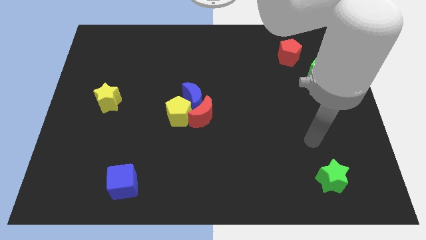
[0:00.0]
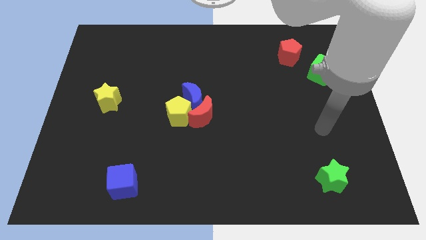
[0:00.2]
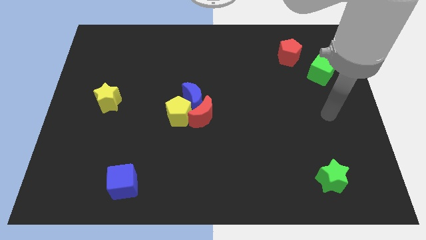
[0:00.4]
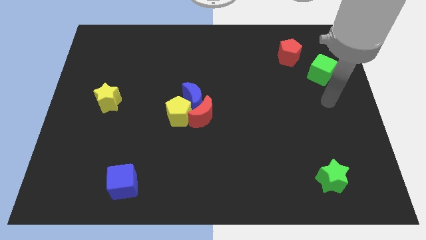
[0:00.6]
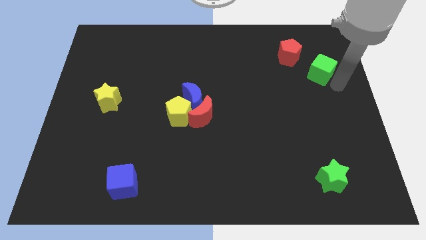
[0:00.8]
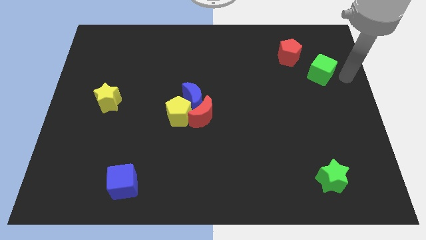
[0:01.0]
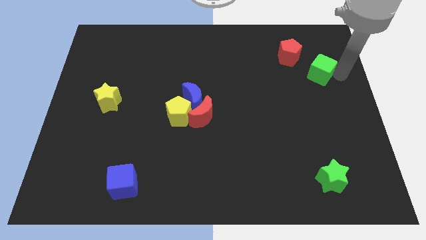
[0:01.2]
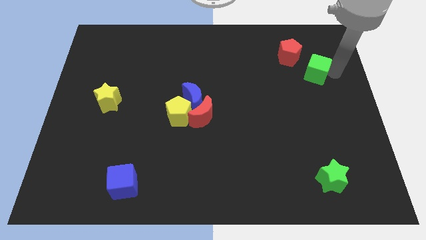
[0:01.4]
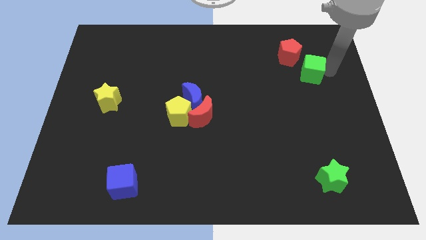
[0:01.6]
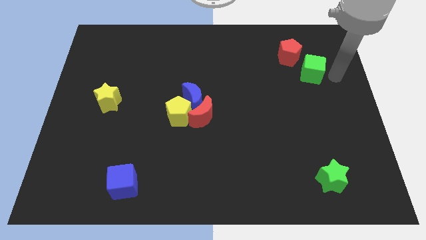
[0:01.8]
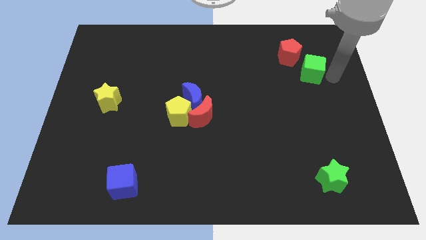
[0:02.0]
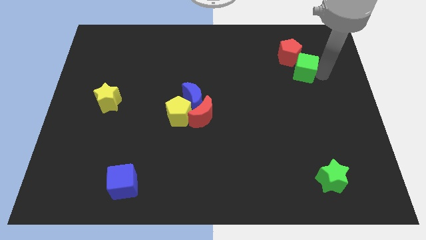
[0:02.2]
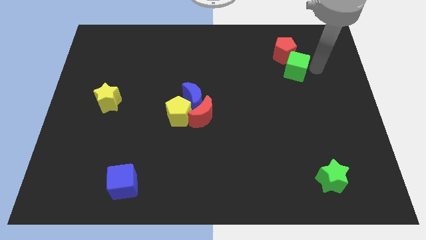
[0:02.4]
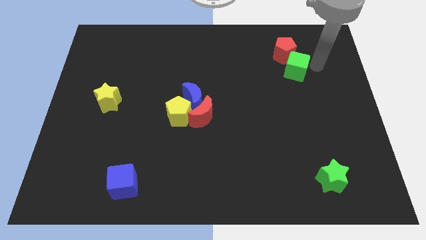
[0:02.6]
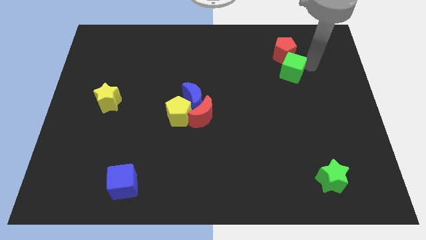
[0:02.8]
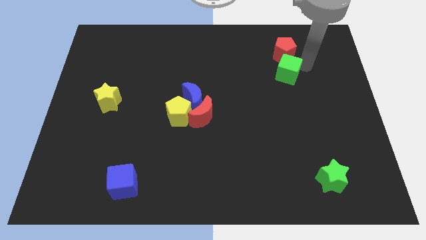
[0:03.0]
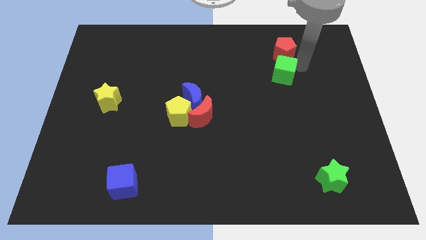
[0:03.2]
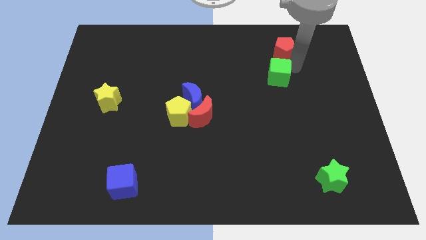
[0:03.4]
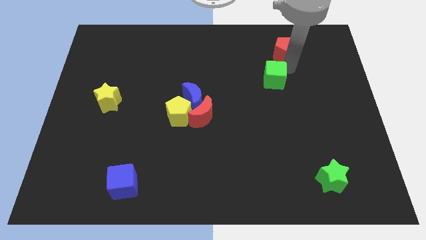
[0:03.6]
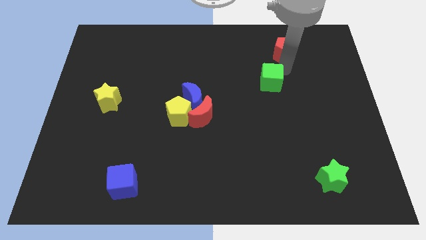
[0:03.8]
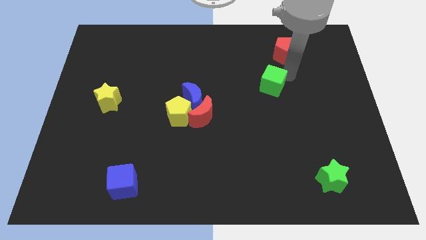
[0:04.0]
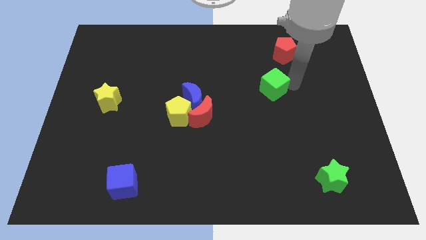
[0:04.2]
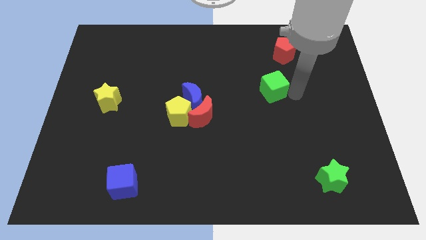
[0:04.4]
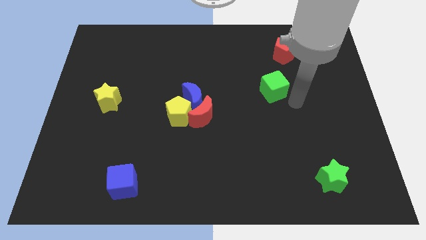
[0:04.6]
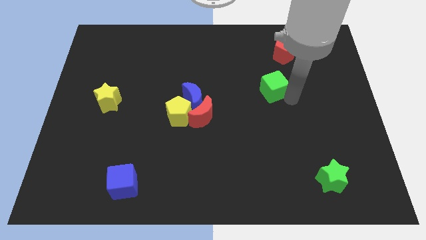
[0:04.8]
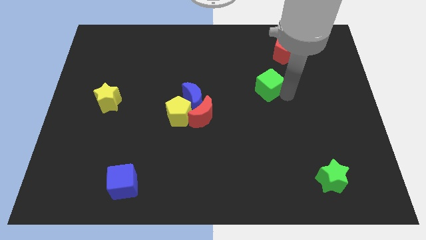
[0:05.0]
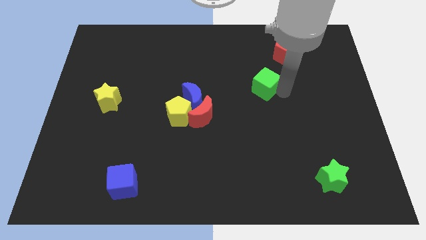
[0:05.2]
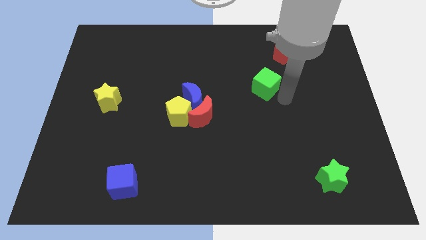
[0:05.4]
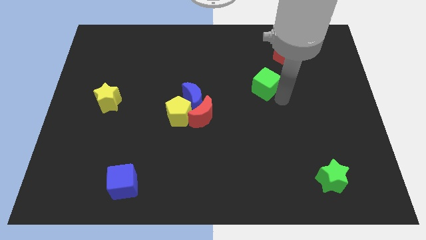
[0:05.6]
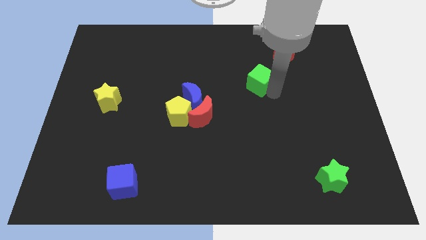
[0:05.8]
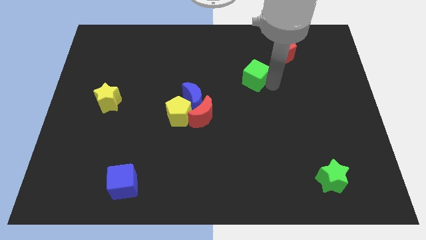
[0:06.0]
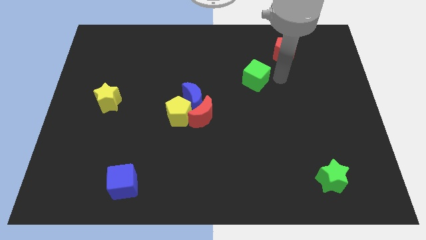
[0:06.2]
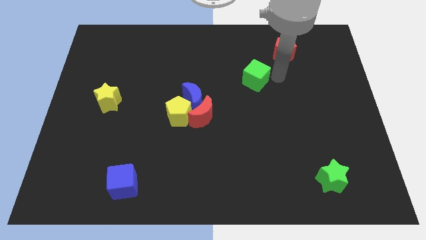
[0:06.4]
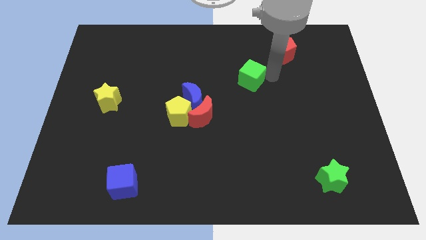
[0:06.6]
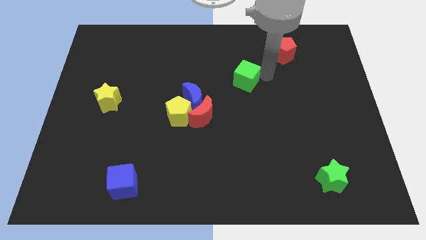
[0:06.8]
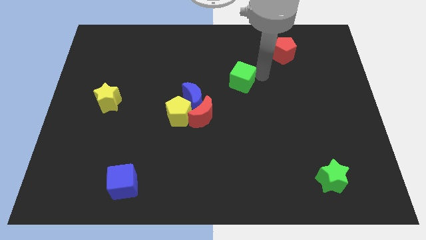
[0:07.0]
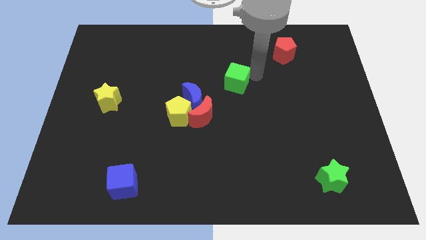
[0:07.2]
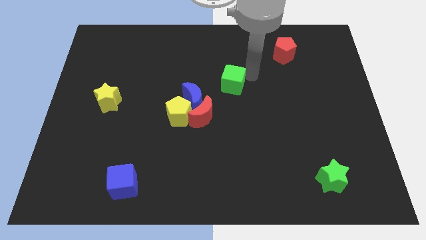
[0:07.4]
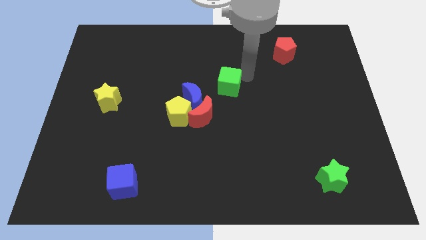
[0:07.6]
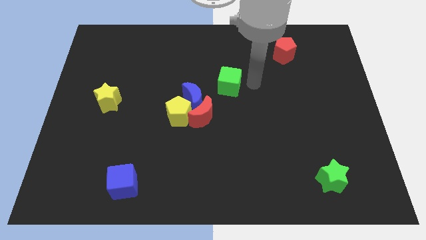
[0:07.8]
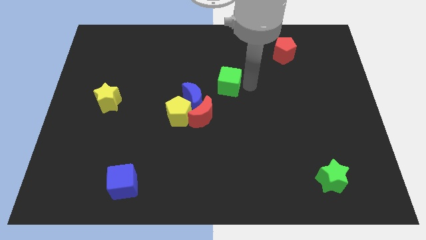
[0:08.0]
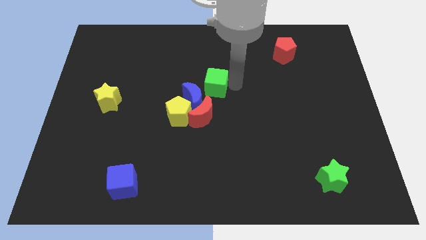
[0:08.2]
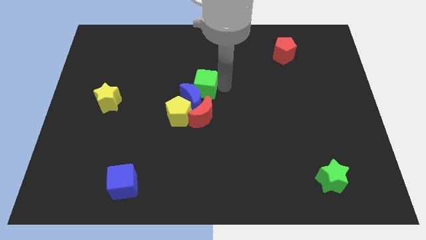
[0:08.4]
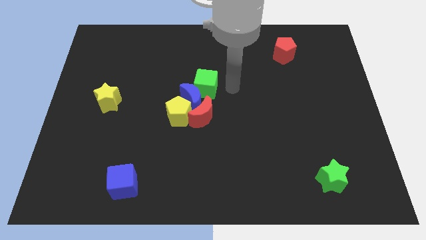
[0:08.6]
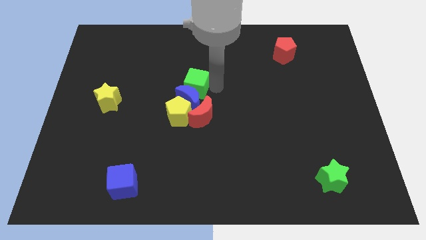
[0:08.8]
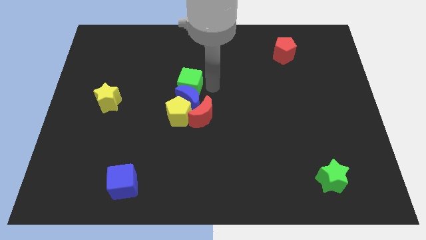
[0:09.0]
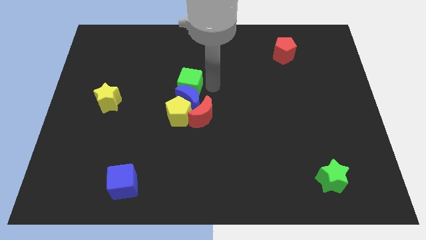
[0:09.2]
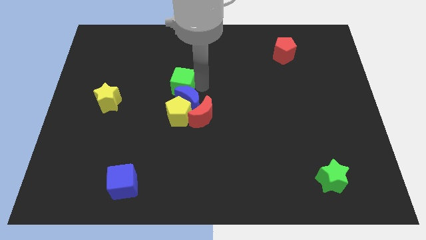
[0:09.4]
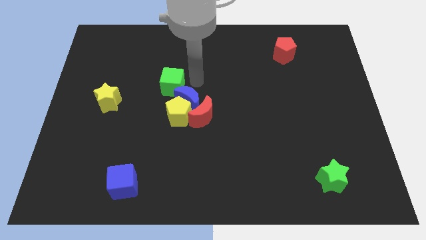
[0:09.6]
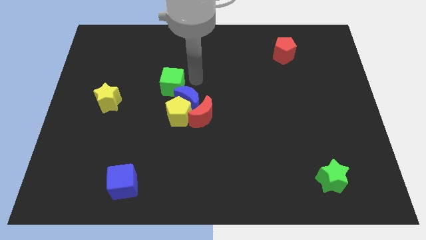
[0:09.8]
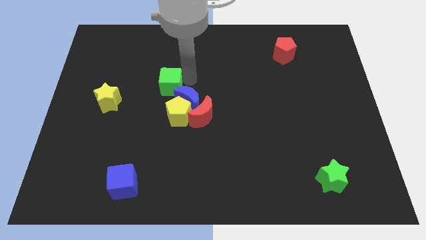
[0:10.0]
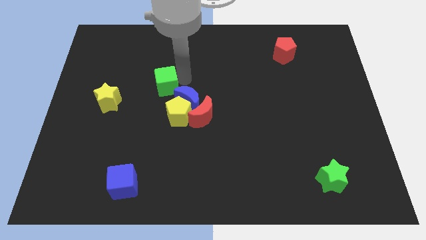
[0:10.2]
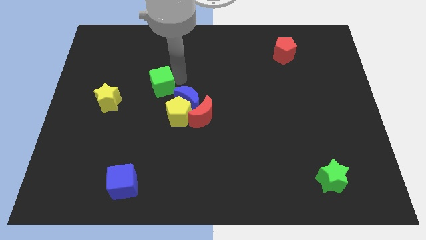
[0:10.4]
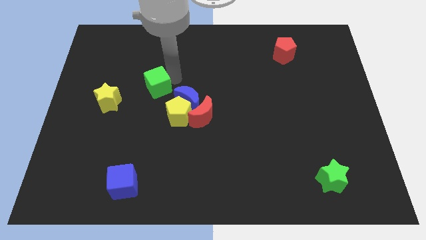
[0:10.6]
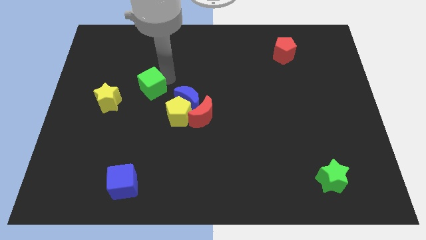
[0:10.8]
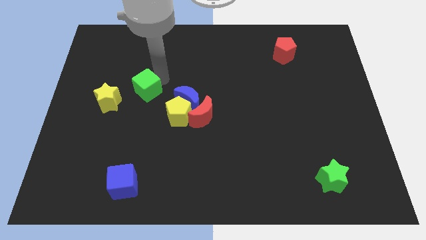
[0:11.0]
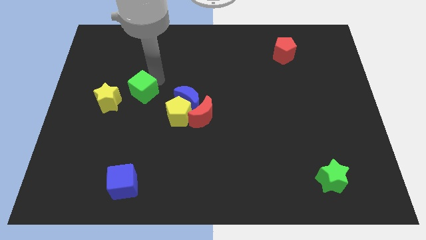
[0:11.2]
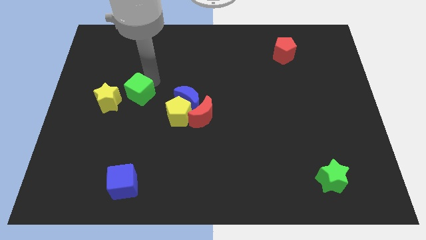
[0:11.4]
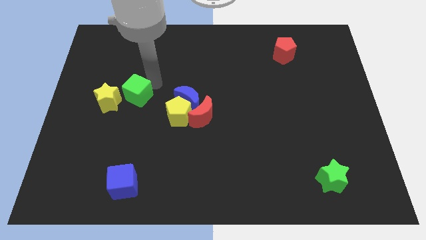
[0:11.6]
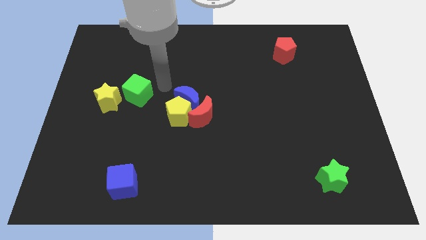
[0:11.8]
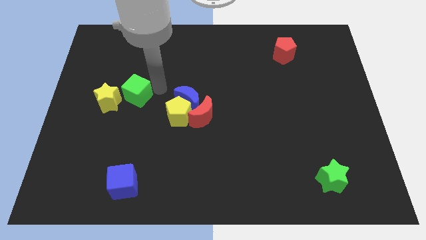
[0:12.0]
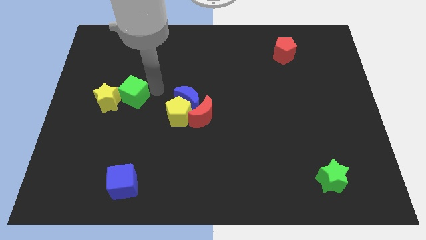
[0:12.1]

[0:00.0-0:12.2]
put the green cube to the yellow star

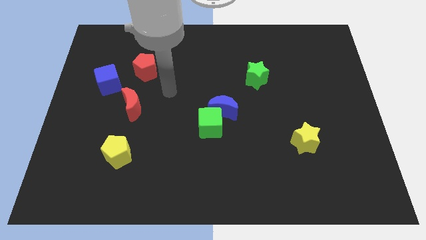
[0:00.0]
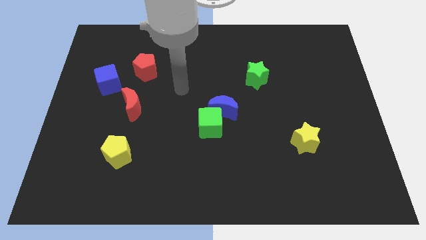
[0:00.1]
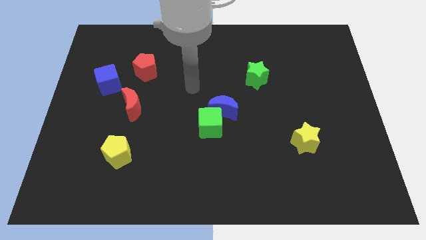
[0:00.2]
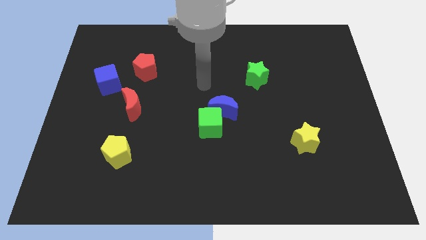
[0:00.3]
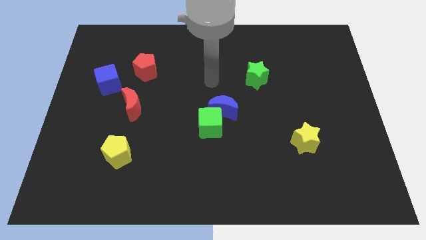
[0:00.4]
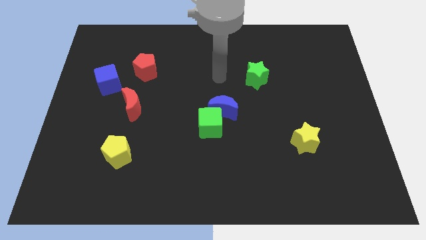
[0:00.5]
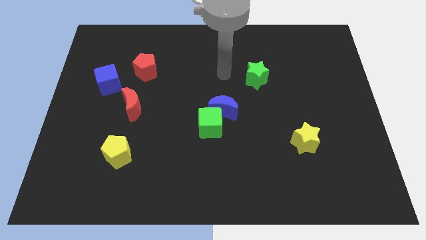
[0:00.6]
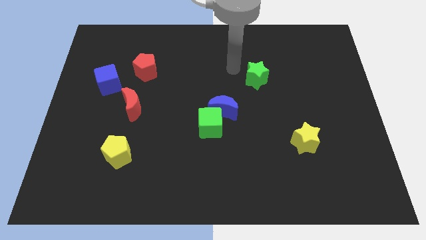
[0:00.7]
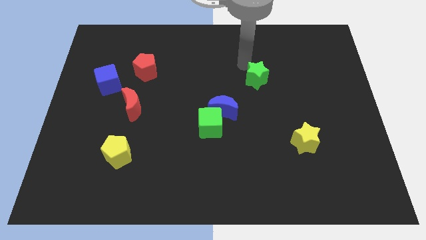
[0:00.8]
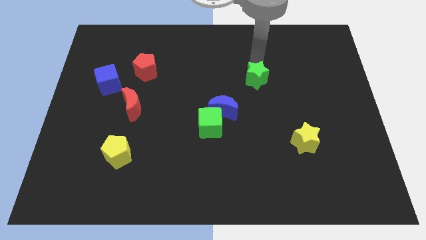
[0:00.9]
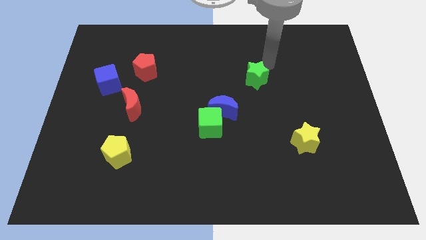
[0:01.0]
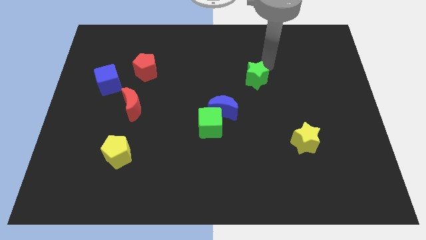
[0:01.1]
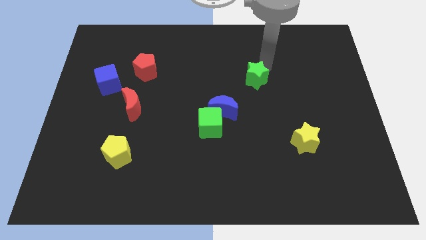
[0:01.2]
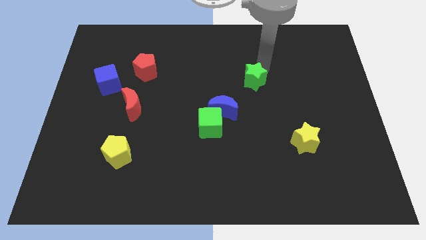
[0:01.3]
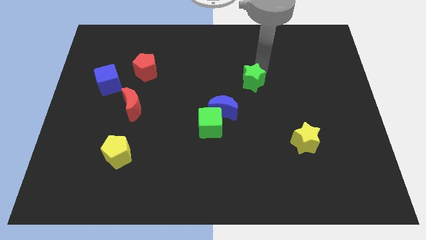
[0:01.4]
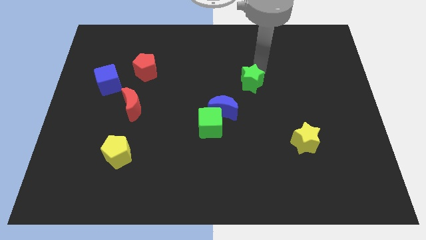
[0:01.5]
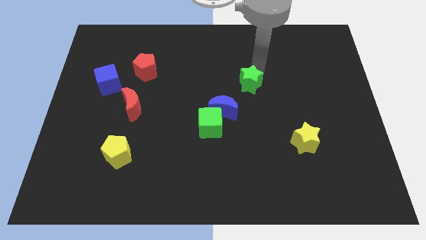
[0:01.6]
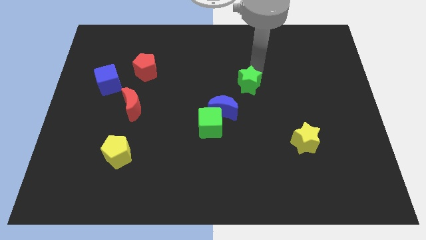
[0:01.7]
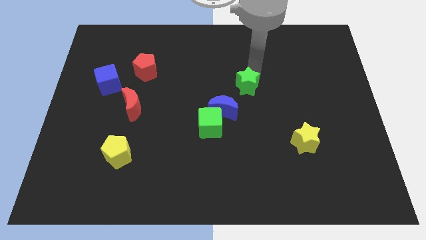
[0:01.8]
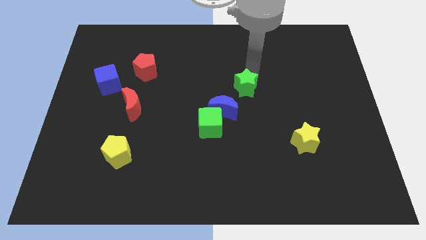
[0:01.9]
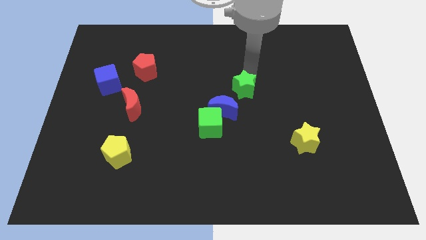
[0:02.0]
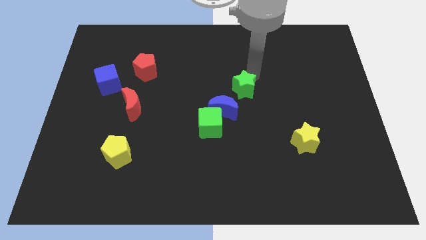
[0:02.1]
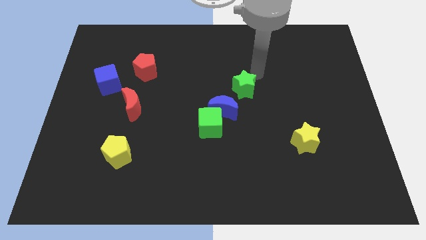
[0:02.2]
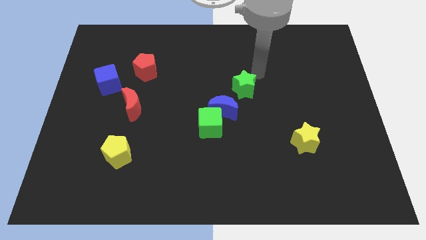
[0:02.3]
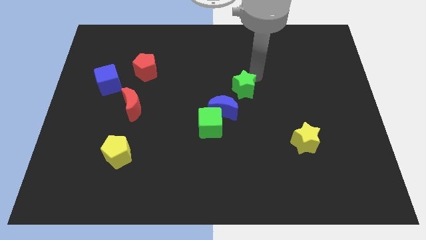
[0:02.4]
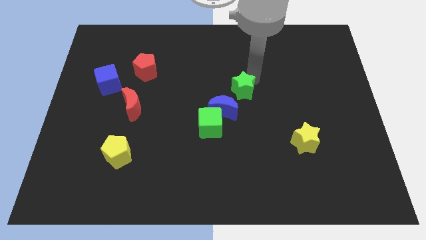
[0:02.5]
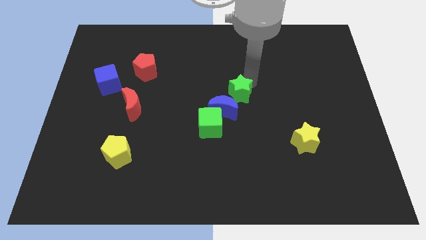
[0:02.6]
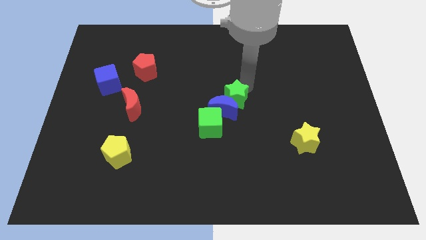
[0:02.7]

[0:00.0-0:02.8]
move the green star next to the blue moon
